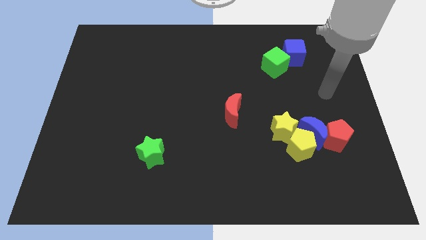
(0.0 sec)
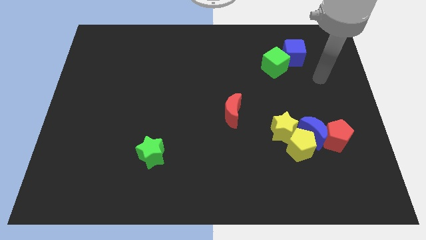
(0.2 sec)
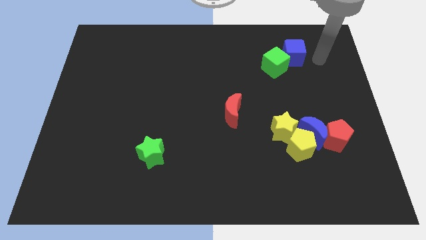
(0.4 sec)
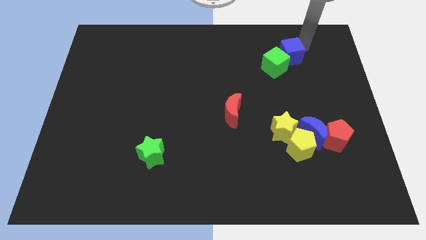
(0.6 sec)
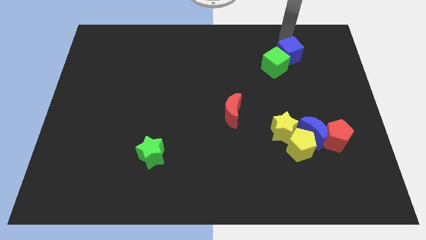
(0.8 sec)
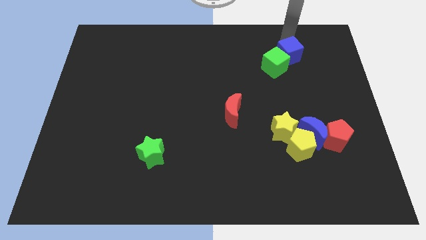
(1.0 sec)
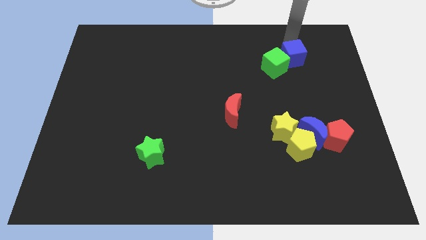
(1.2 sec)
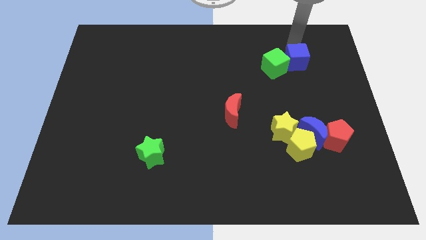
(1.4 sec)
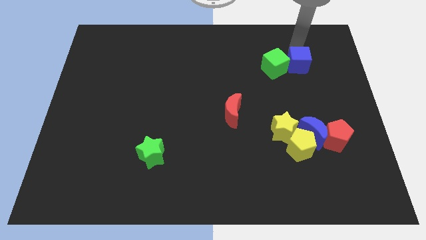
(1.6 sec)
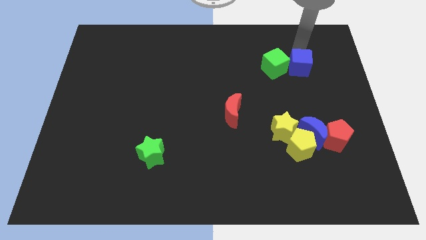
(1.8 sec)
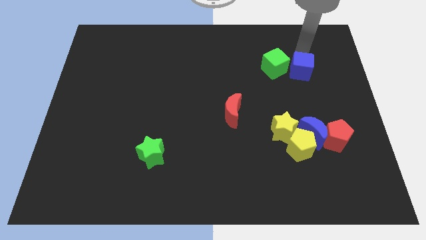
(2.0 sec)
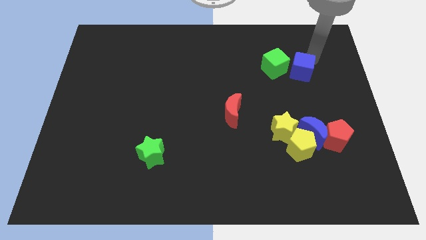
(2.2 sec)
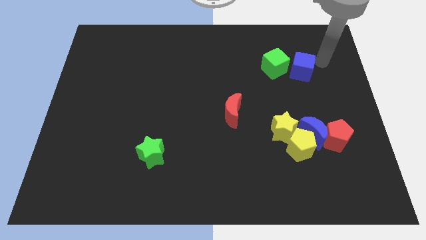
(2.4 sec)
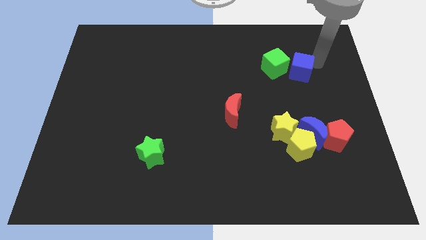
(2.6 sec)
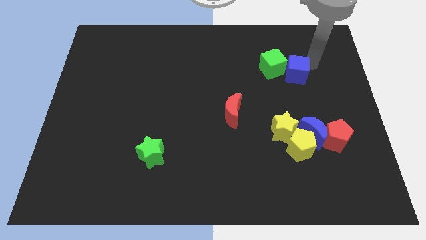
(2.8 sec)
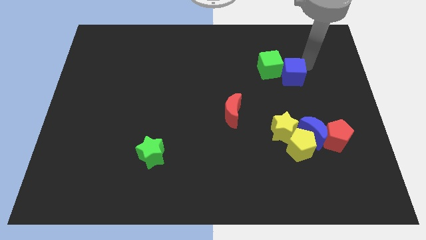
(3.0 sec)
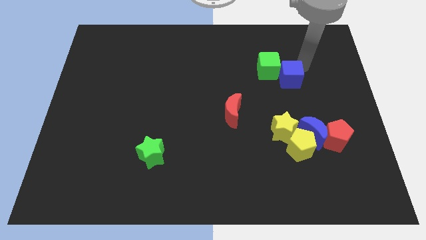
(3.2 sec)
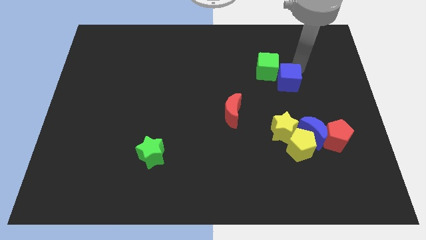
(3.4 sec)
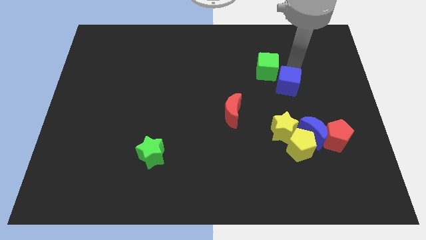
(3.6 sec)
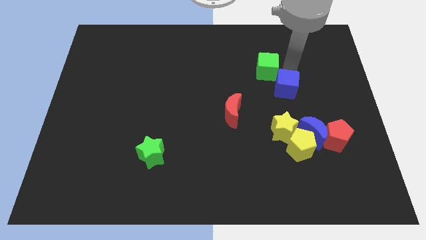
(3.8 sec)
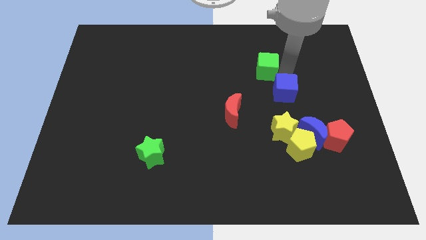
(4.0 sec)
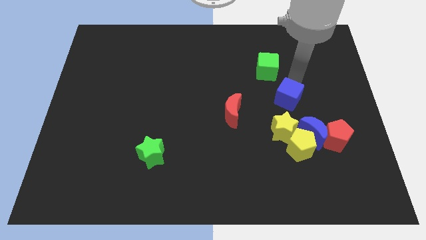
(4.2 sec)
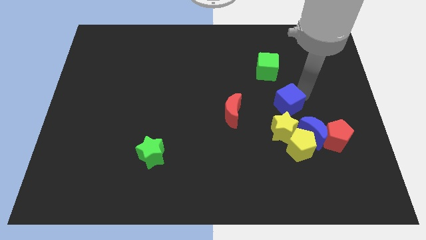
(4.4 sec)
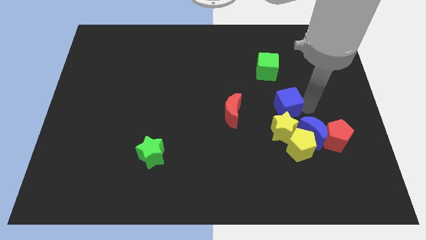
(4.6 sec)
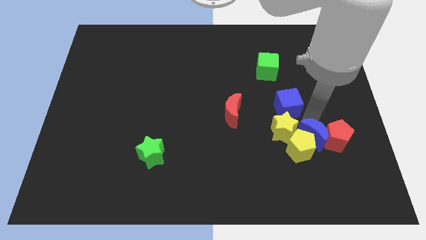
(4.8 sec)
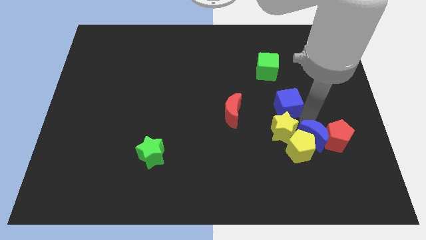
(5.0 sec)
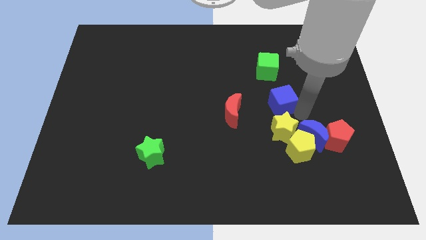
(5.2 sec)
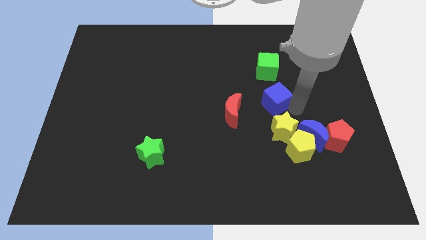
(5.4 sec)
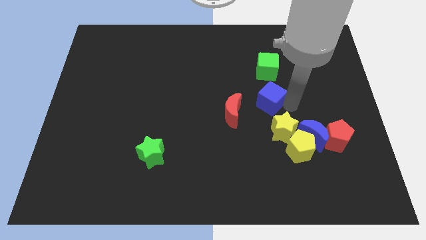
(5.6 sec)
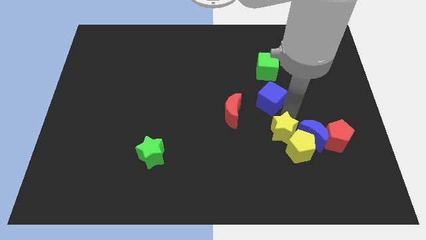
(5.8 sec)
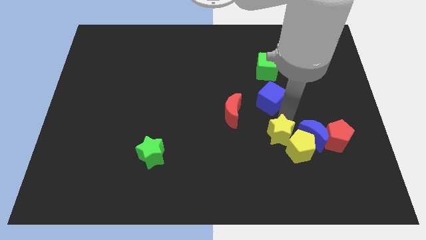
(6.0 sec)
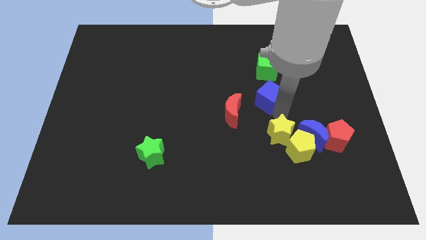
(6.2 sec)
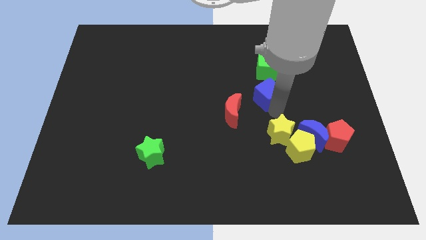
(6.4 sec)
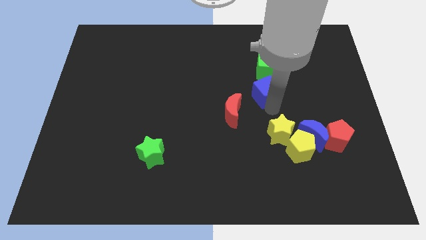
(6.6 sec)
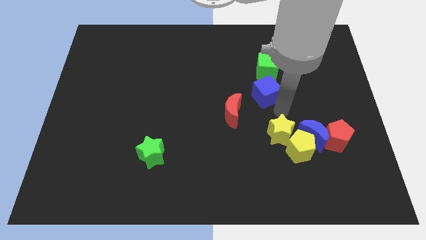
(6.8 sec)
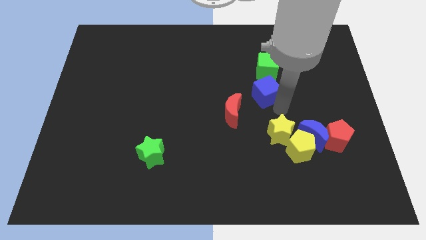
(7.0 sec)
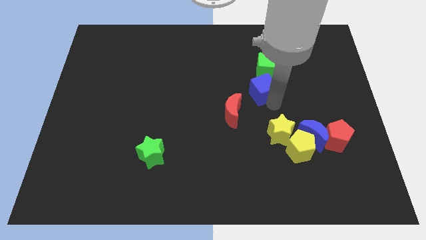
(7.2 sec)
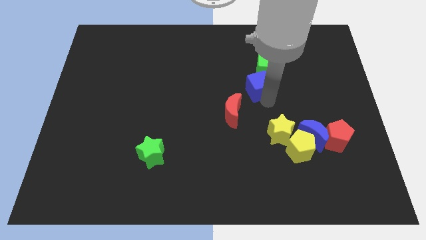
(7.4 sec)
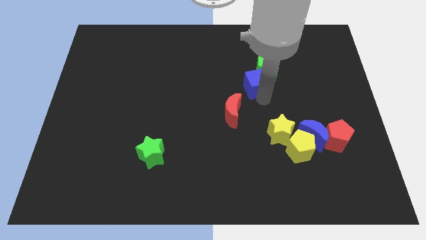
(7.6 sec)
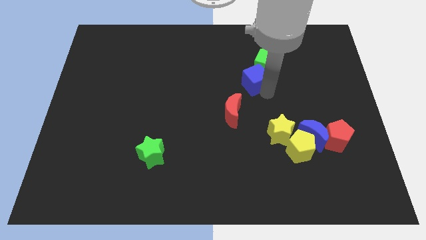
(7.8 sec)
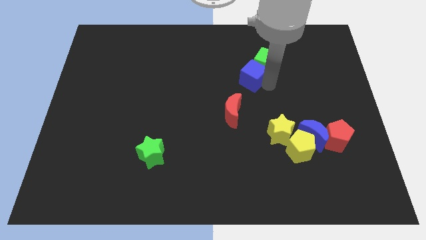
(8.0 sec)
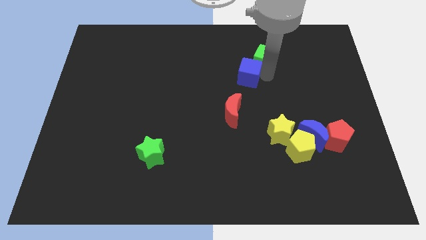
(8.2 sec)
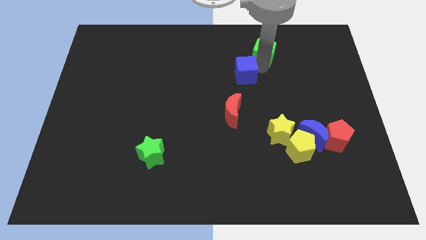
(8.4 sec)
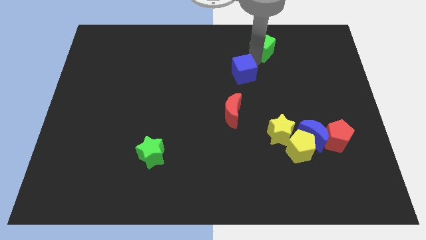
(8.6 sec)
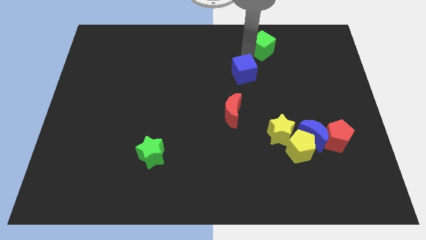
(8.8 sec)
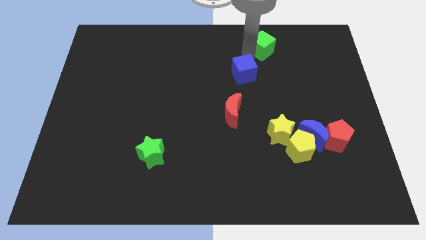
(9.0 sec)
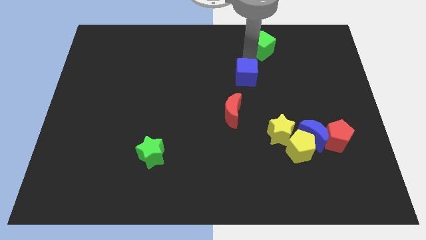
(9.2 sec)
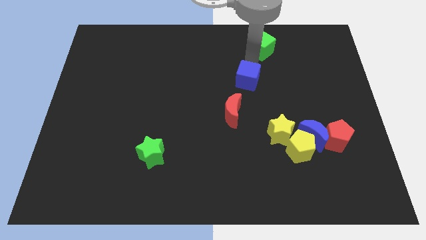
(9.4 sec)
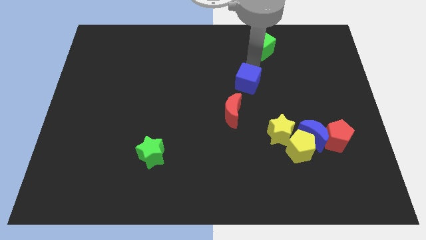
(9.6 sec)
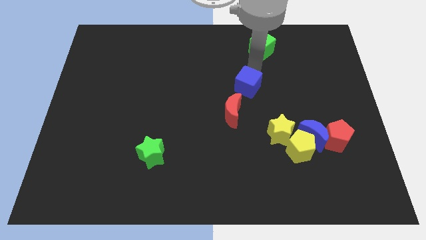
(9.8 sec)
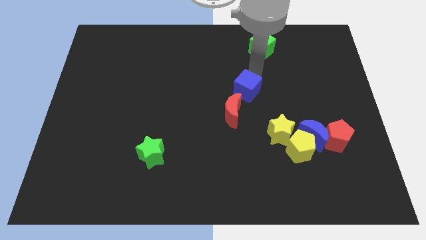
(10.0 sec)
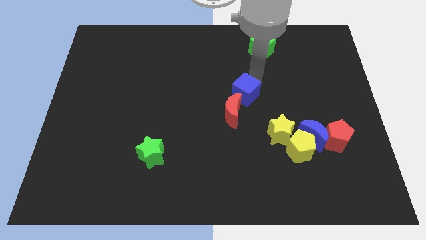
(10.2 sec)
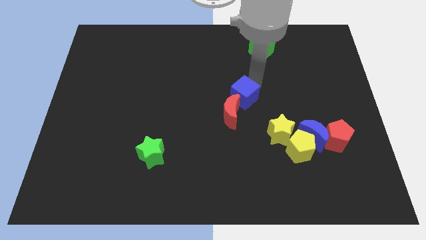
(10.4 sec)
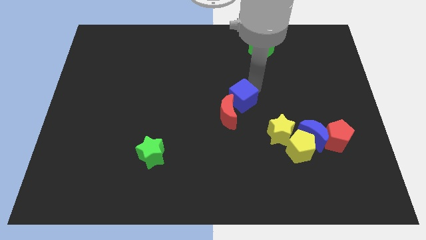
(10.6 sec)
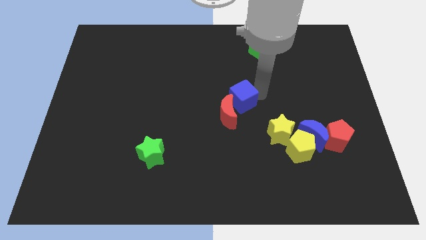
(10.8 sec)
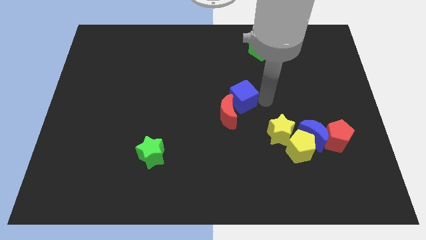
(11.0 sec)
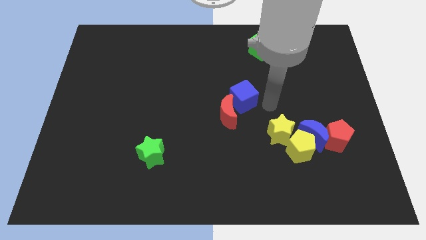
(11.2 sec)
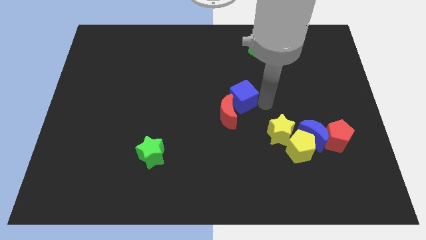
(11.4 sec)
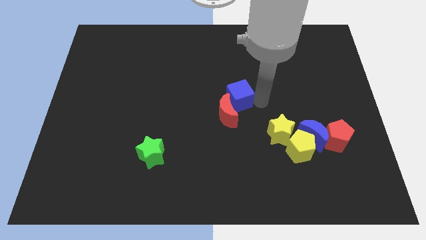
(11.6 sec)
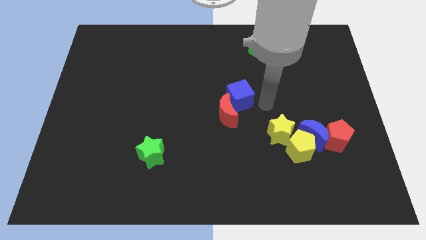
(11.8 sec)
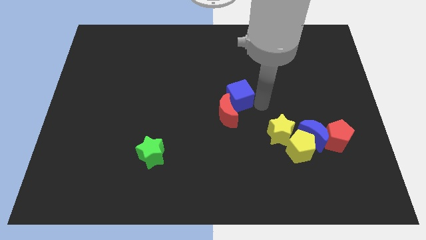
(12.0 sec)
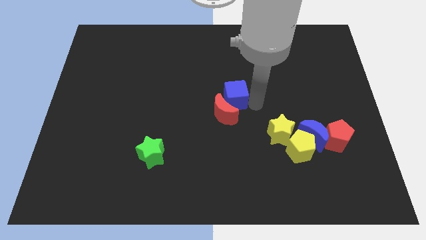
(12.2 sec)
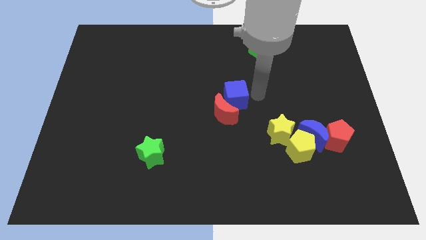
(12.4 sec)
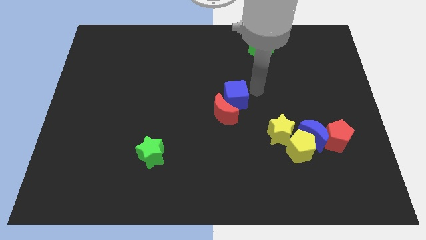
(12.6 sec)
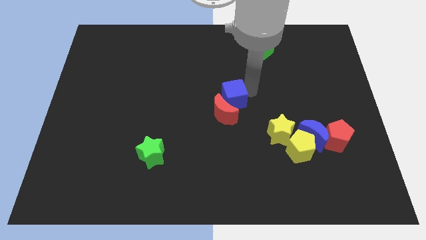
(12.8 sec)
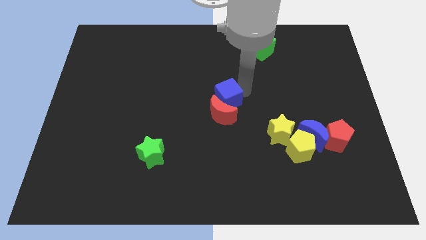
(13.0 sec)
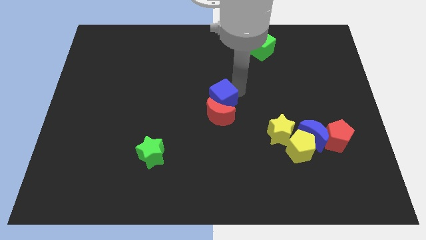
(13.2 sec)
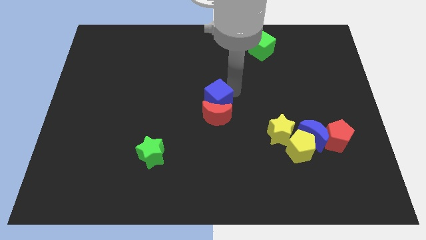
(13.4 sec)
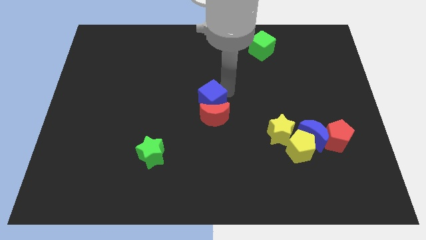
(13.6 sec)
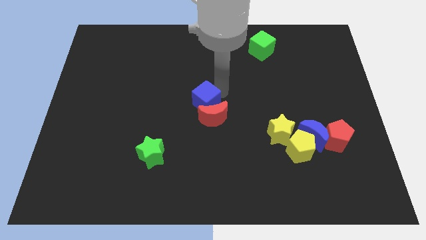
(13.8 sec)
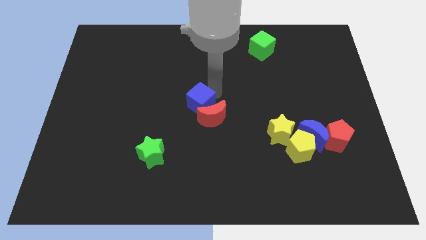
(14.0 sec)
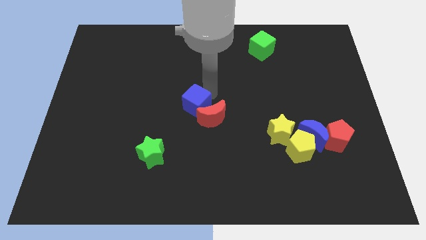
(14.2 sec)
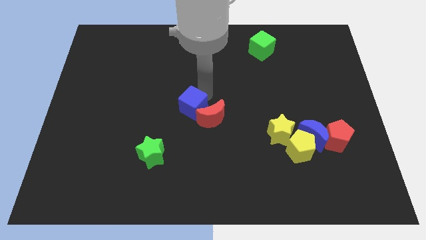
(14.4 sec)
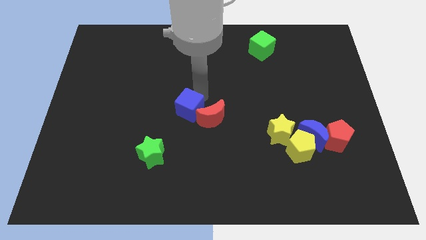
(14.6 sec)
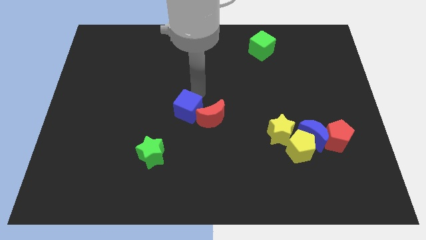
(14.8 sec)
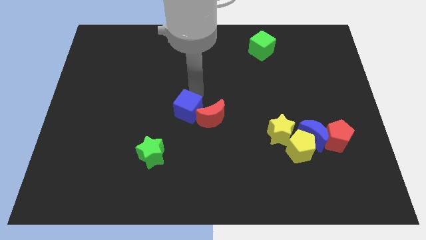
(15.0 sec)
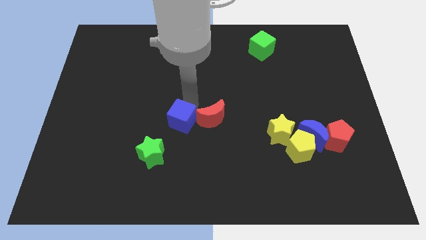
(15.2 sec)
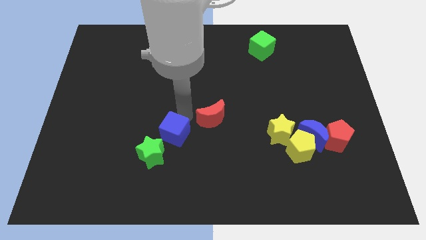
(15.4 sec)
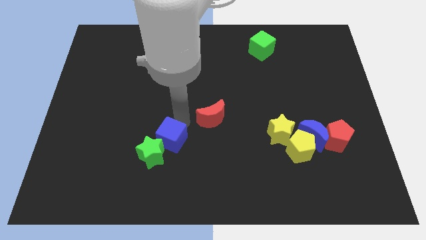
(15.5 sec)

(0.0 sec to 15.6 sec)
push the blue cube towards the green star
